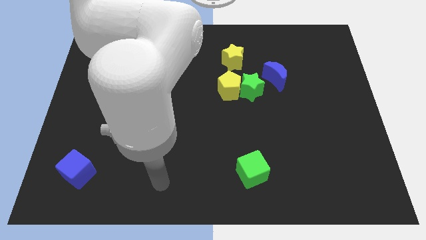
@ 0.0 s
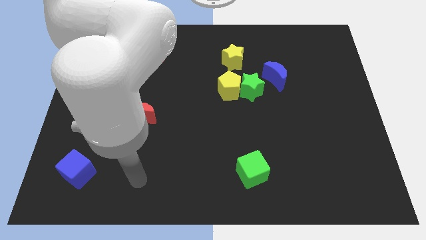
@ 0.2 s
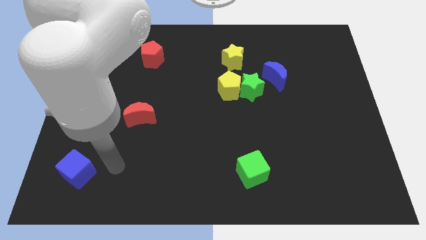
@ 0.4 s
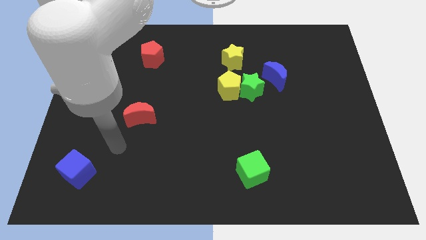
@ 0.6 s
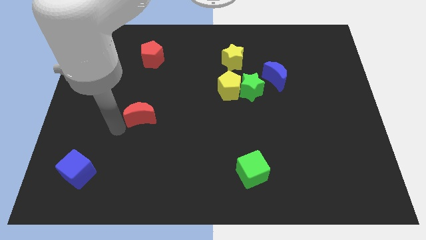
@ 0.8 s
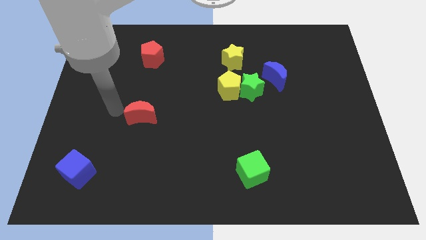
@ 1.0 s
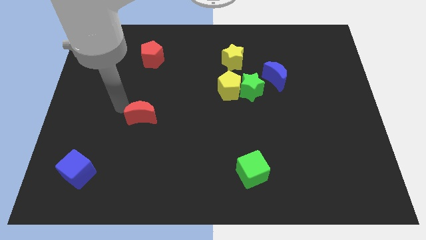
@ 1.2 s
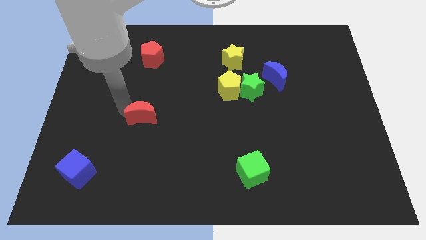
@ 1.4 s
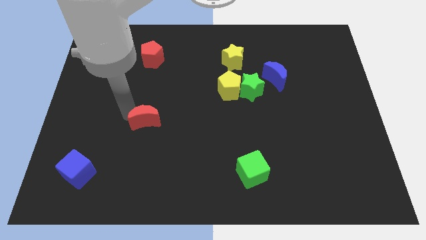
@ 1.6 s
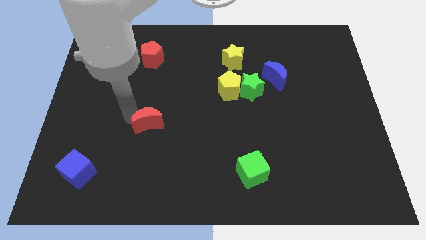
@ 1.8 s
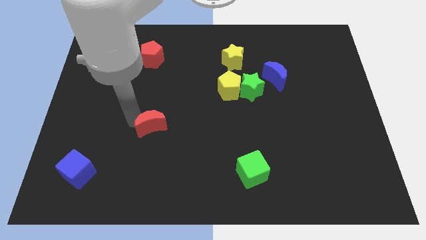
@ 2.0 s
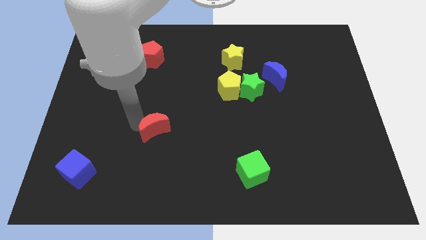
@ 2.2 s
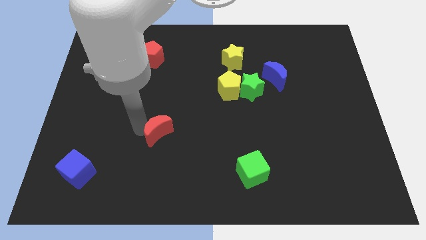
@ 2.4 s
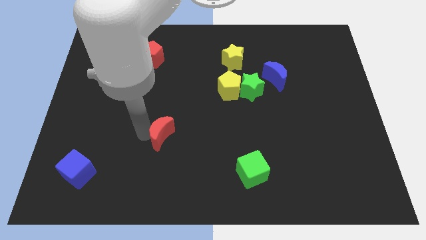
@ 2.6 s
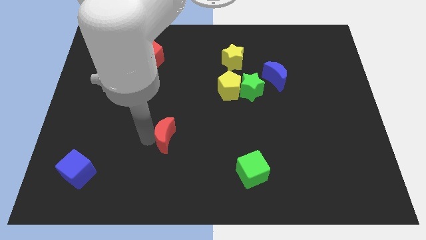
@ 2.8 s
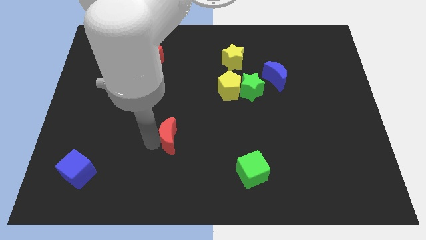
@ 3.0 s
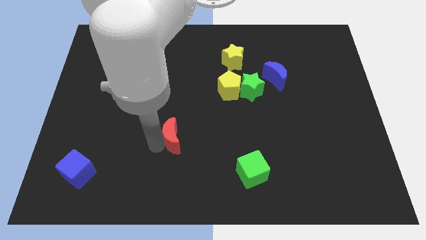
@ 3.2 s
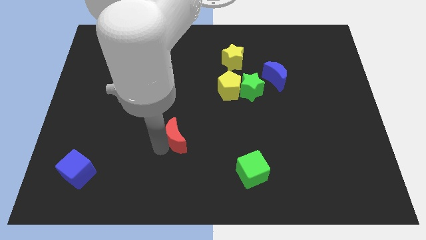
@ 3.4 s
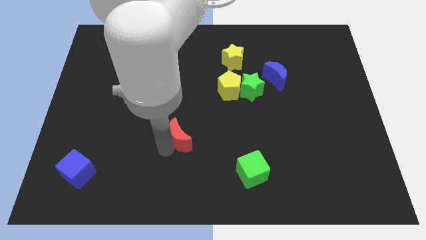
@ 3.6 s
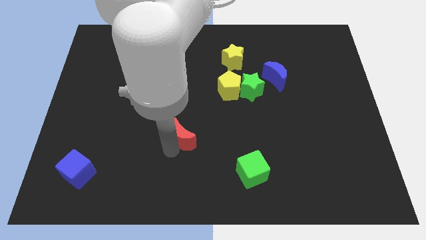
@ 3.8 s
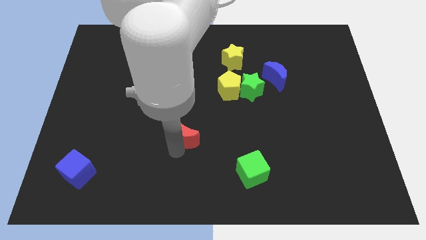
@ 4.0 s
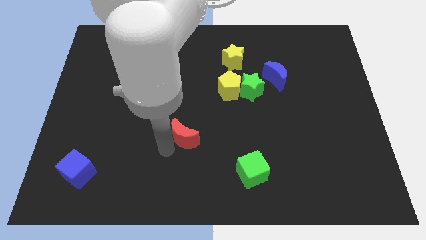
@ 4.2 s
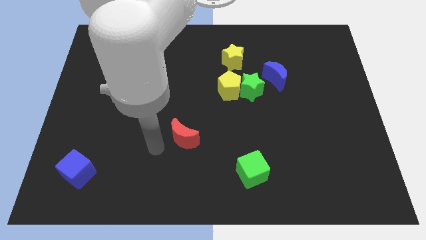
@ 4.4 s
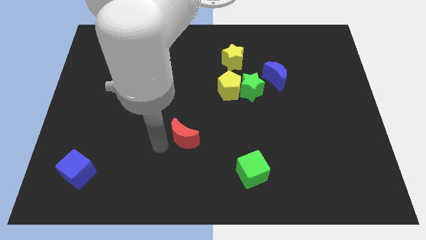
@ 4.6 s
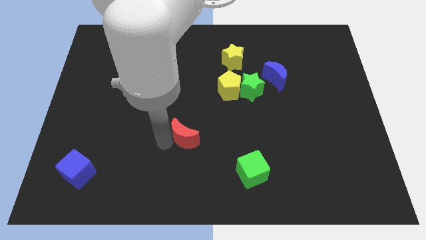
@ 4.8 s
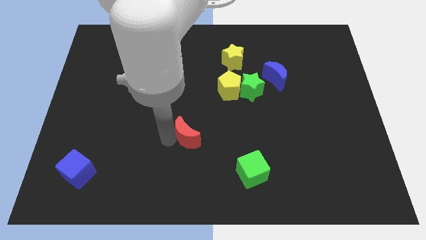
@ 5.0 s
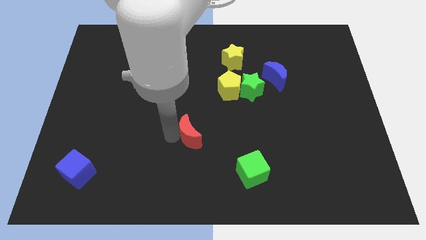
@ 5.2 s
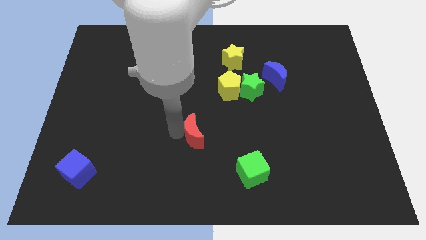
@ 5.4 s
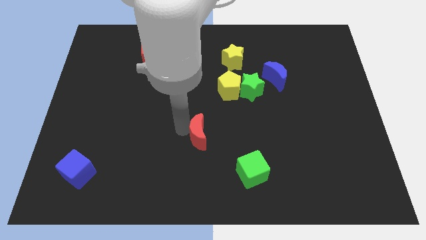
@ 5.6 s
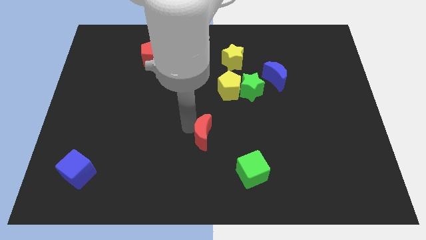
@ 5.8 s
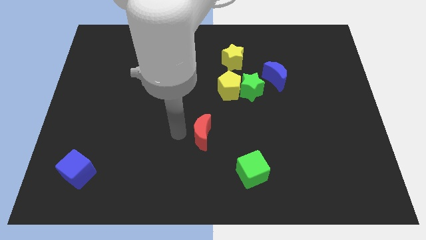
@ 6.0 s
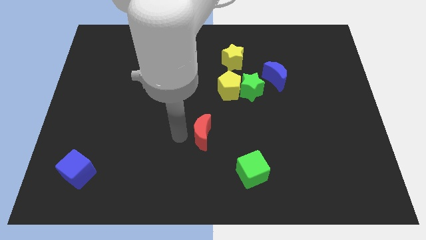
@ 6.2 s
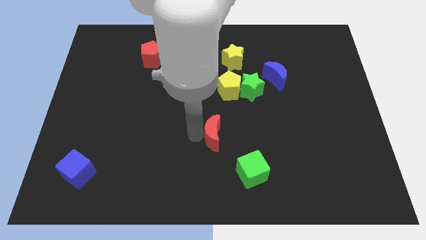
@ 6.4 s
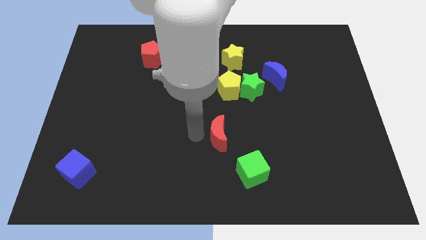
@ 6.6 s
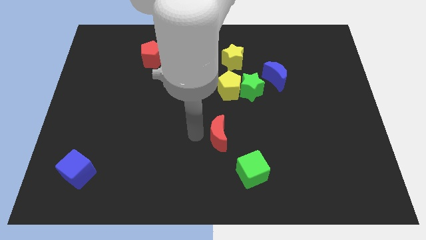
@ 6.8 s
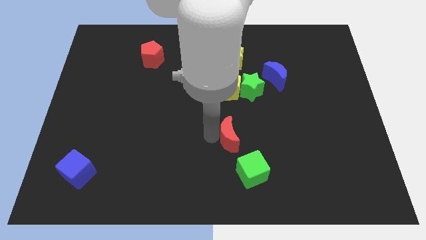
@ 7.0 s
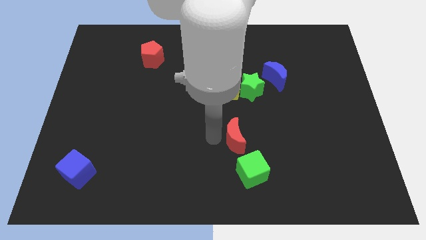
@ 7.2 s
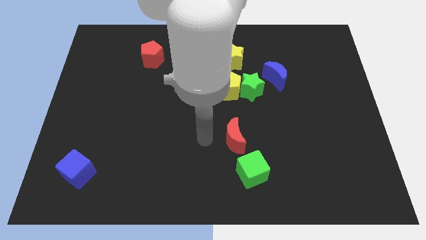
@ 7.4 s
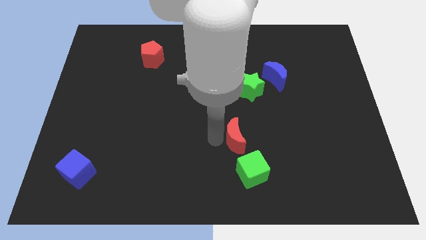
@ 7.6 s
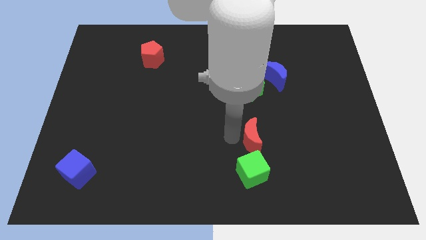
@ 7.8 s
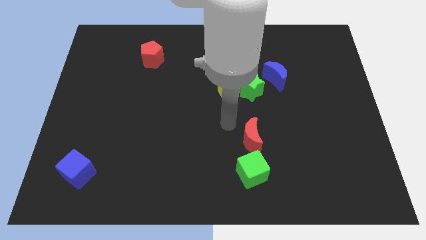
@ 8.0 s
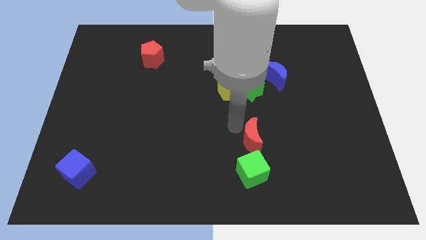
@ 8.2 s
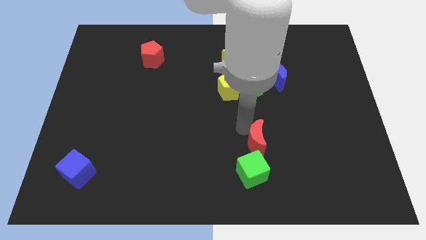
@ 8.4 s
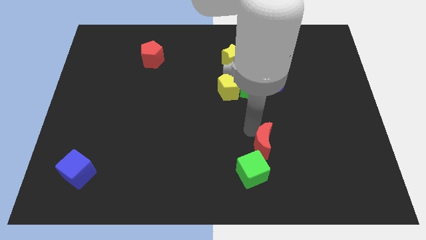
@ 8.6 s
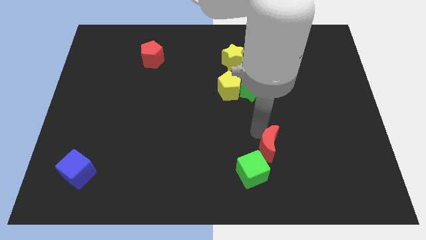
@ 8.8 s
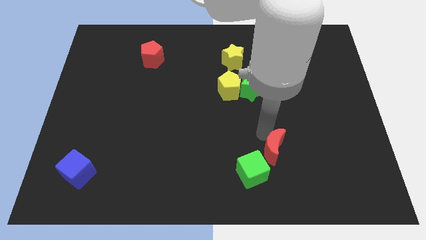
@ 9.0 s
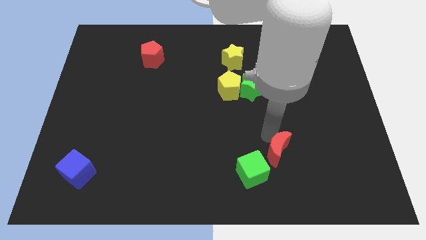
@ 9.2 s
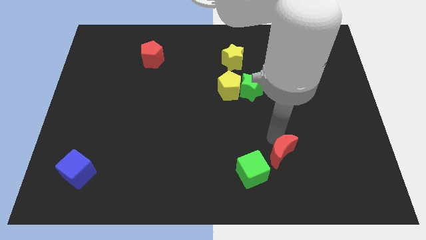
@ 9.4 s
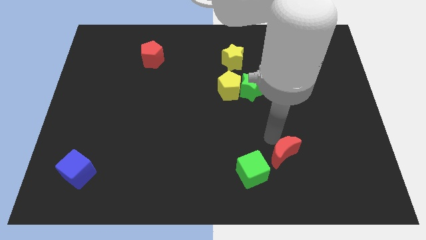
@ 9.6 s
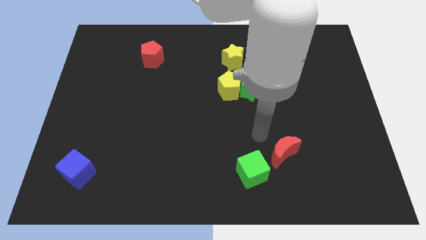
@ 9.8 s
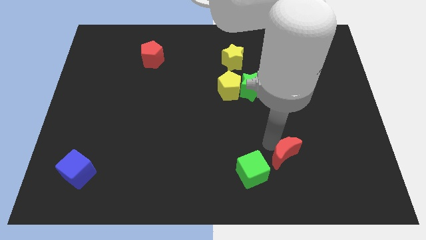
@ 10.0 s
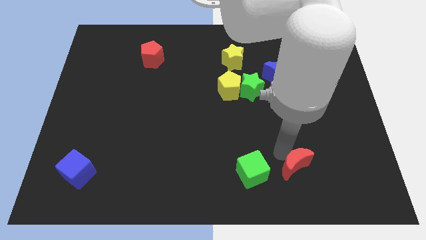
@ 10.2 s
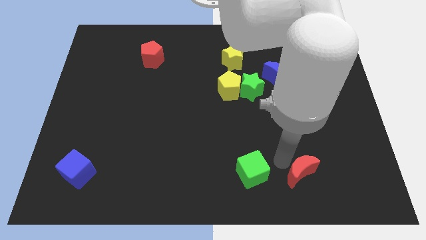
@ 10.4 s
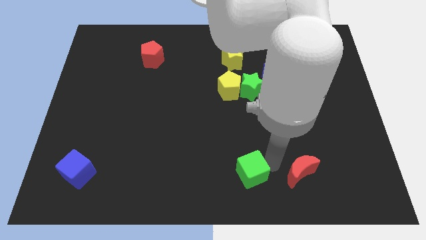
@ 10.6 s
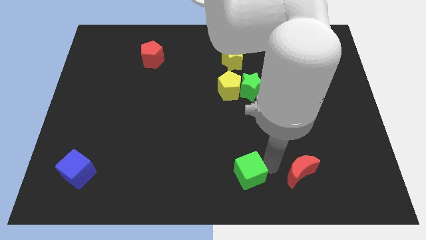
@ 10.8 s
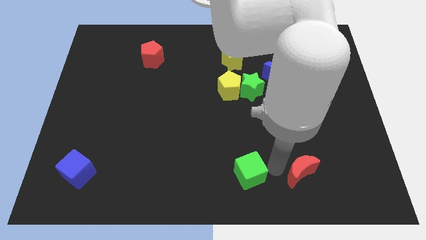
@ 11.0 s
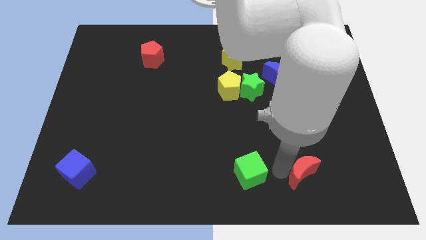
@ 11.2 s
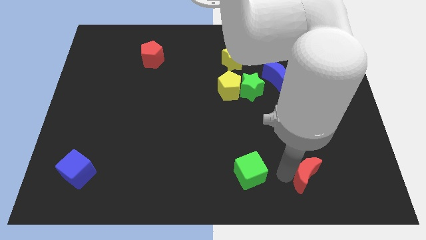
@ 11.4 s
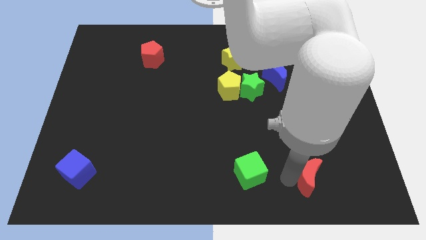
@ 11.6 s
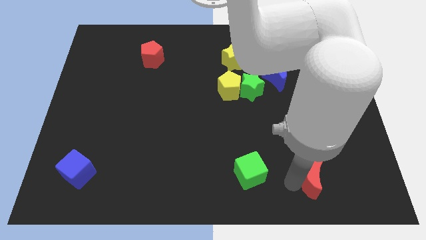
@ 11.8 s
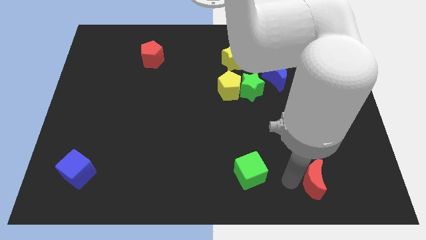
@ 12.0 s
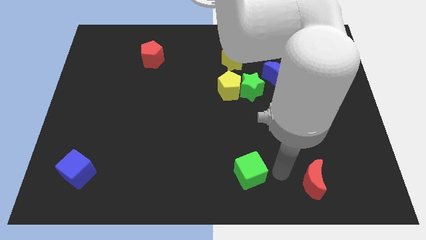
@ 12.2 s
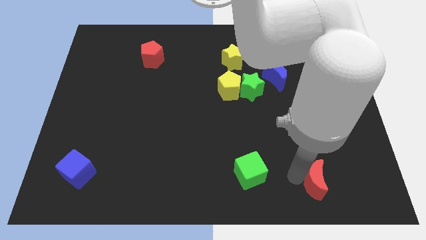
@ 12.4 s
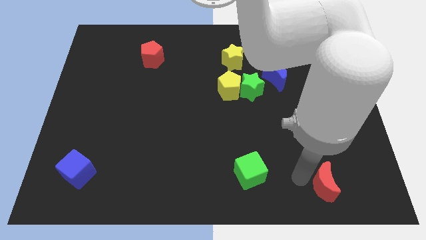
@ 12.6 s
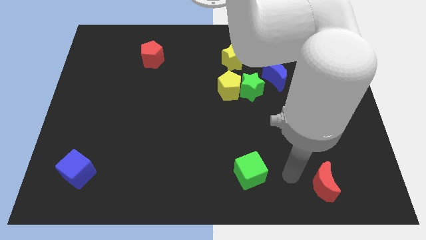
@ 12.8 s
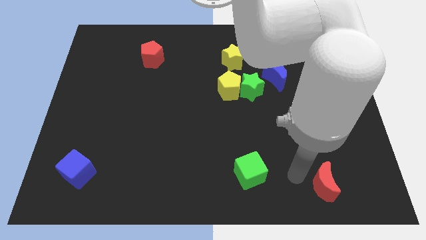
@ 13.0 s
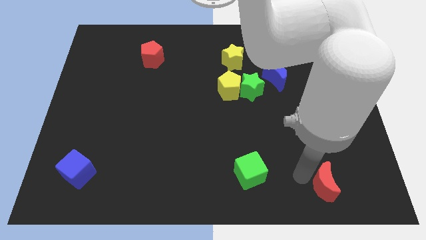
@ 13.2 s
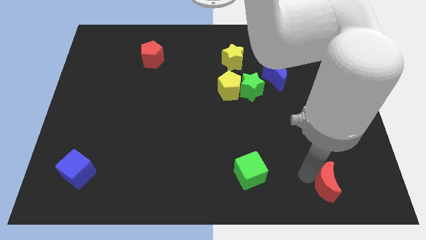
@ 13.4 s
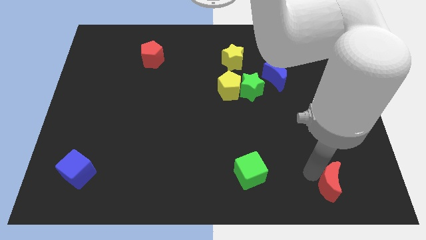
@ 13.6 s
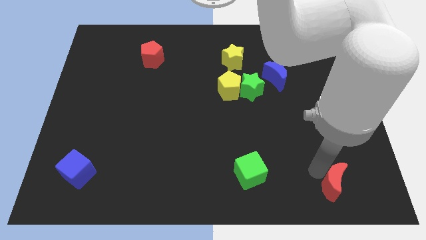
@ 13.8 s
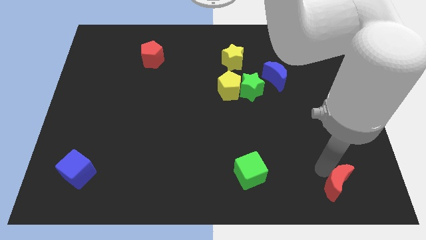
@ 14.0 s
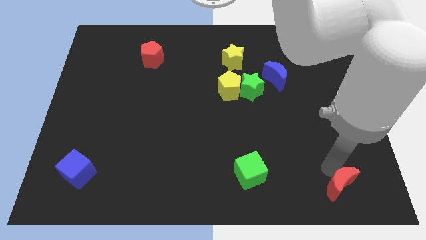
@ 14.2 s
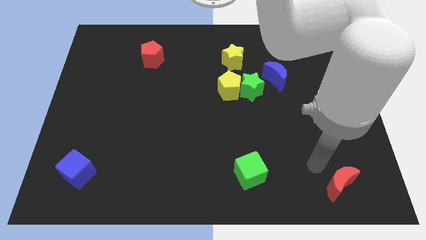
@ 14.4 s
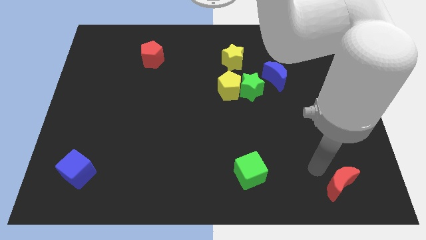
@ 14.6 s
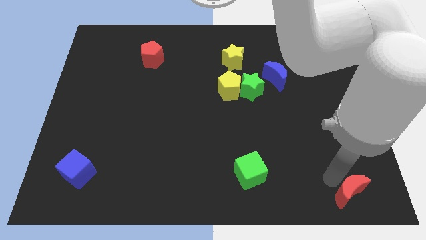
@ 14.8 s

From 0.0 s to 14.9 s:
move the red moon to the bottom right

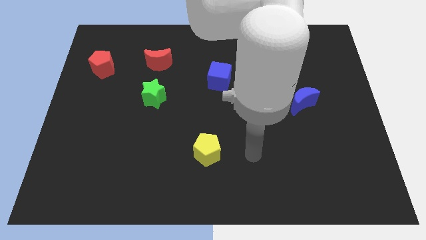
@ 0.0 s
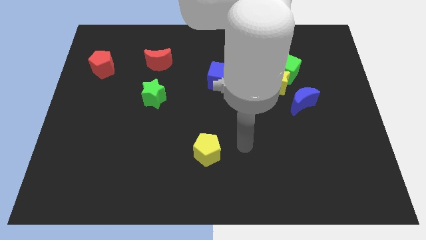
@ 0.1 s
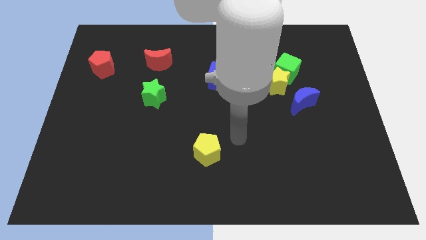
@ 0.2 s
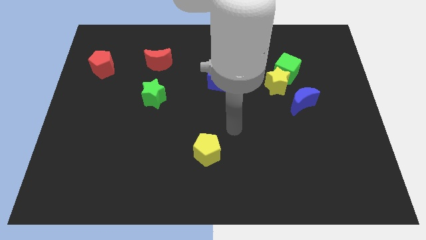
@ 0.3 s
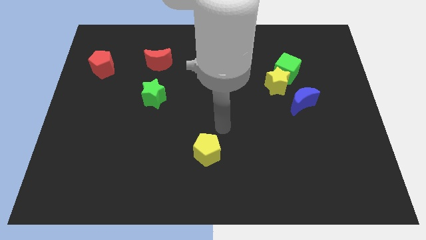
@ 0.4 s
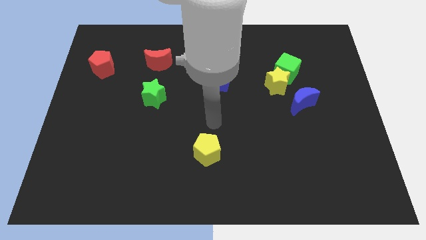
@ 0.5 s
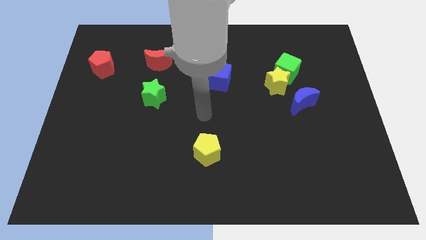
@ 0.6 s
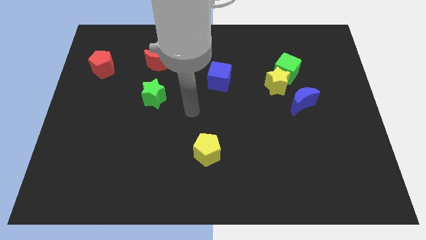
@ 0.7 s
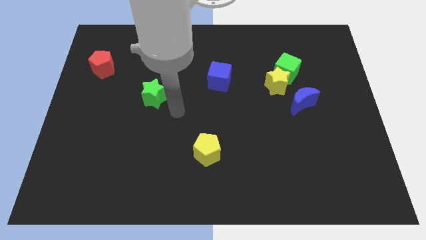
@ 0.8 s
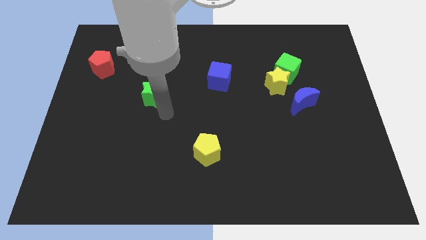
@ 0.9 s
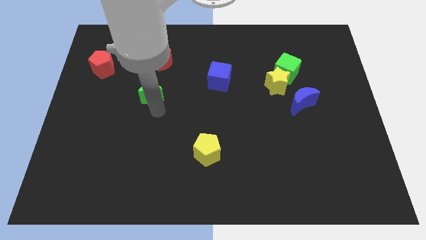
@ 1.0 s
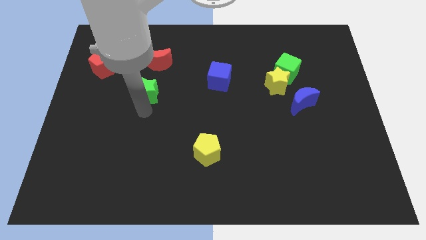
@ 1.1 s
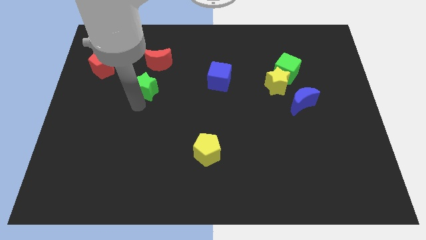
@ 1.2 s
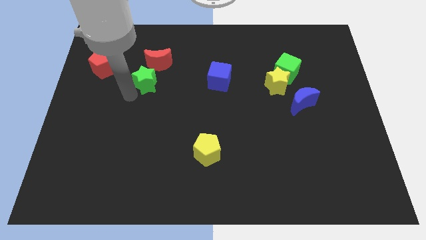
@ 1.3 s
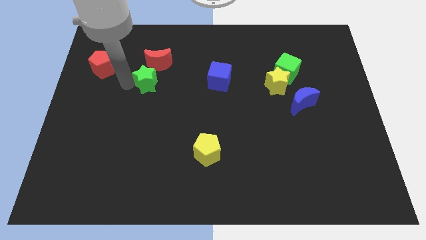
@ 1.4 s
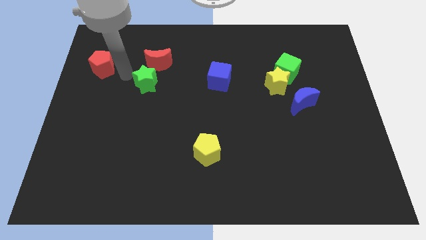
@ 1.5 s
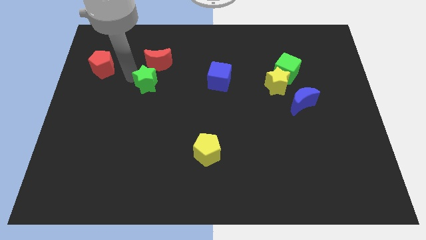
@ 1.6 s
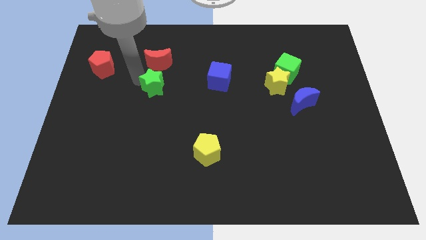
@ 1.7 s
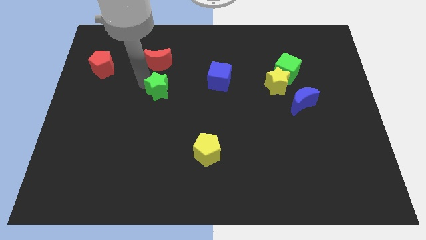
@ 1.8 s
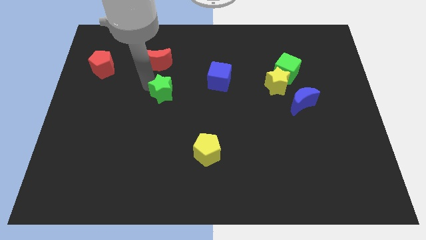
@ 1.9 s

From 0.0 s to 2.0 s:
put the green star to the center of the board
